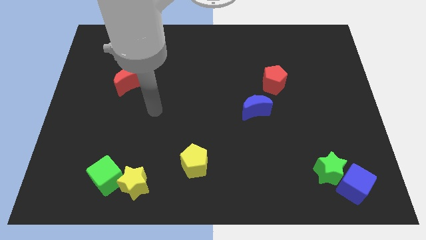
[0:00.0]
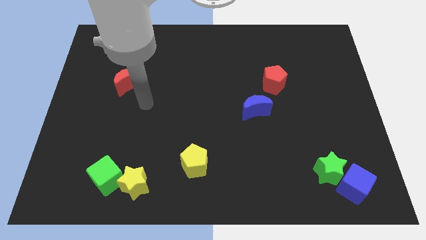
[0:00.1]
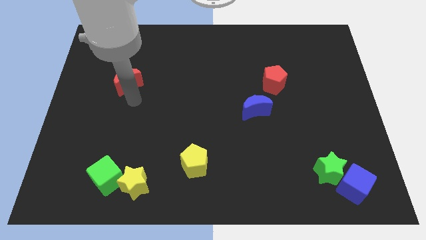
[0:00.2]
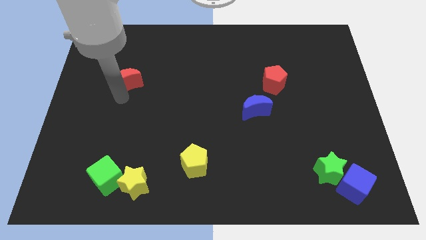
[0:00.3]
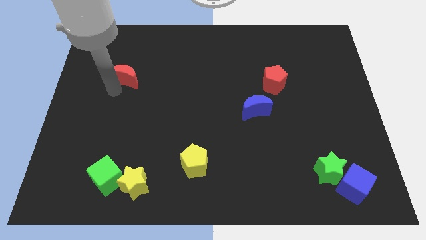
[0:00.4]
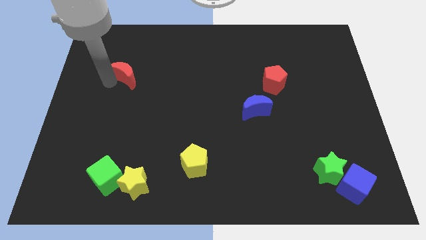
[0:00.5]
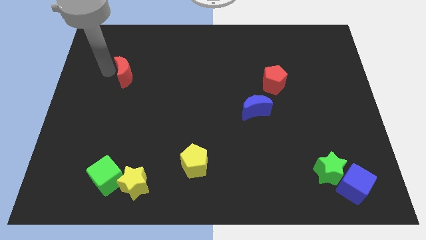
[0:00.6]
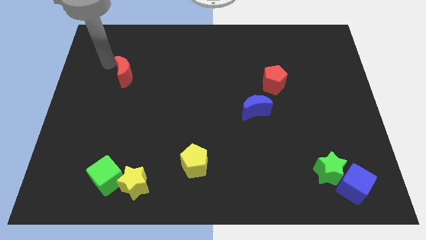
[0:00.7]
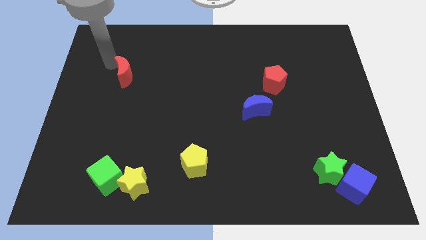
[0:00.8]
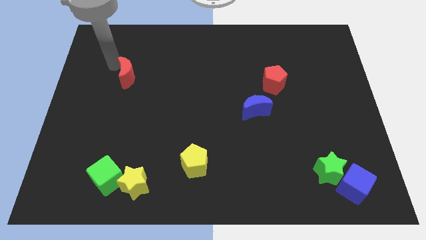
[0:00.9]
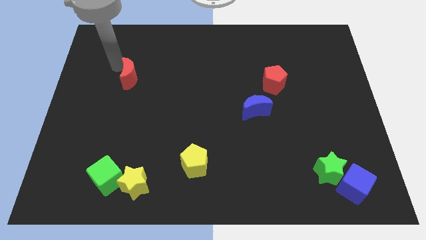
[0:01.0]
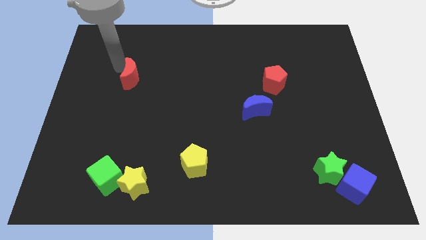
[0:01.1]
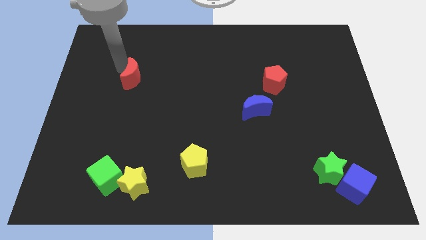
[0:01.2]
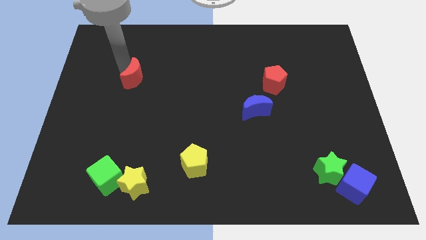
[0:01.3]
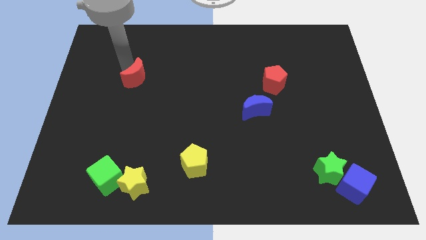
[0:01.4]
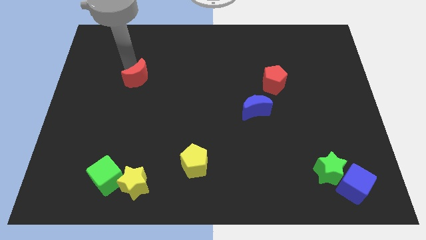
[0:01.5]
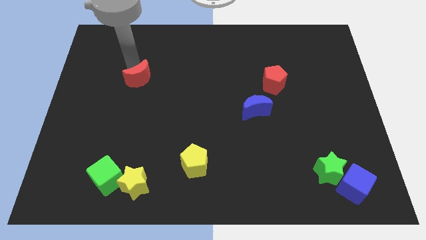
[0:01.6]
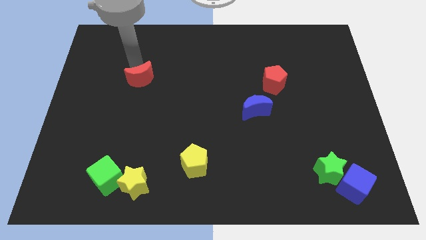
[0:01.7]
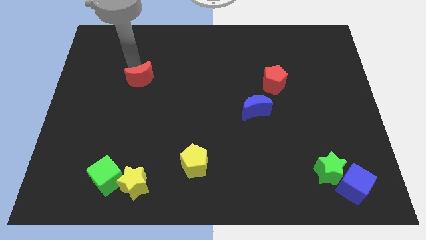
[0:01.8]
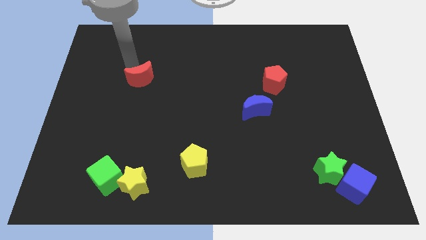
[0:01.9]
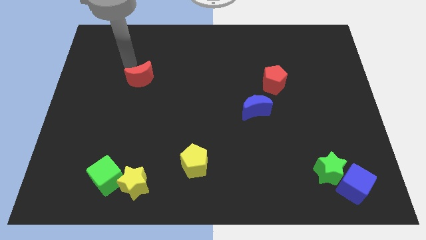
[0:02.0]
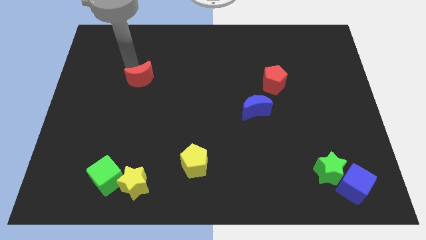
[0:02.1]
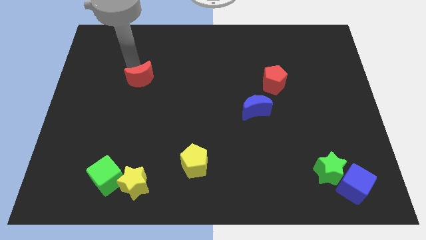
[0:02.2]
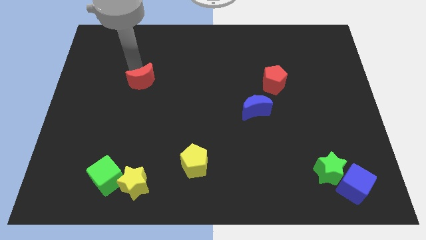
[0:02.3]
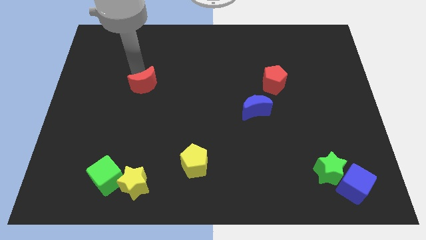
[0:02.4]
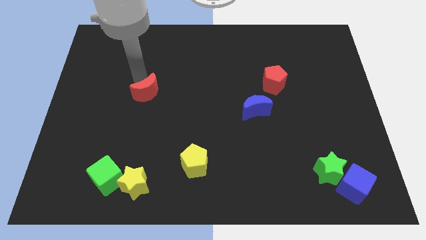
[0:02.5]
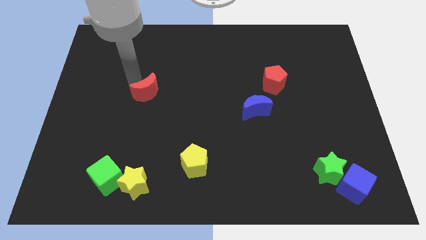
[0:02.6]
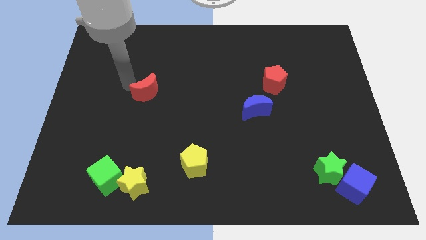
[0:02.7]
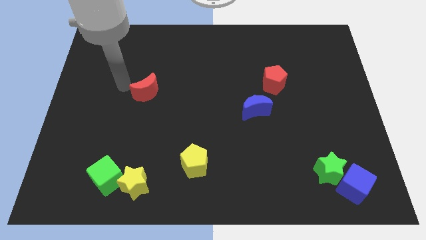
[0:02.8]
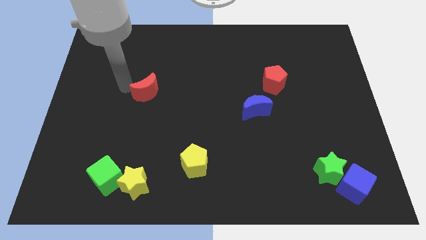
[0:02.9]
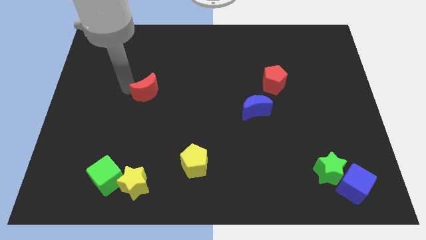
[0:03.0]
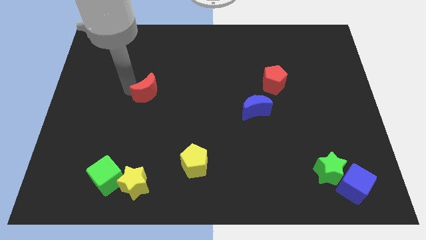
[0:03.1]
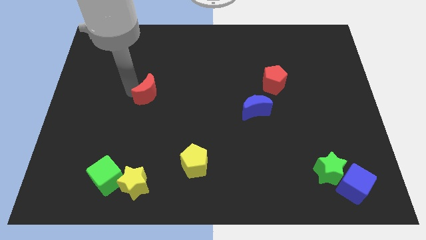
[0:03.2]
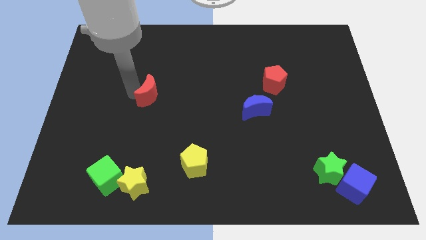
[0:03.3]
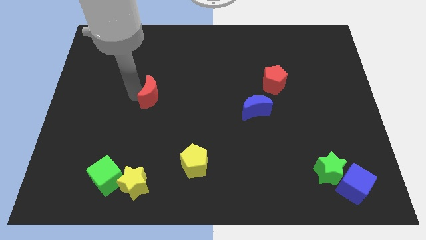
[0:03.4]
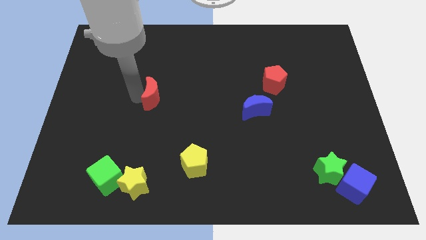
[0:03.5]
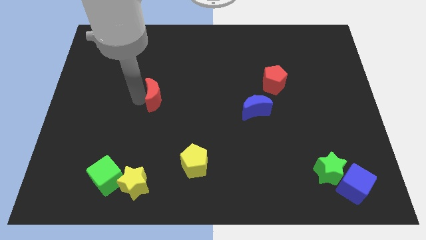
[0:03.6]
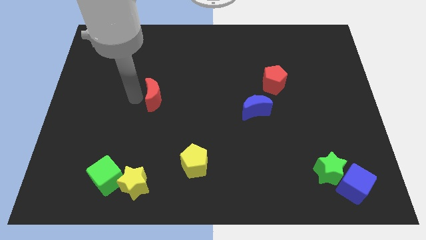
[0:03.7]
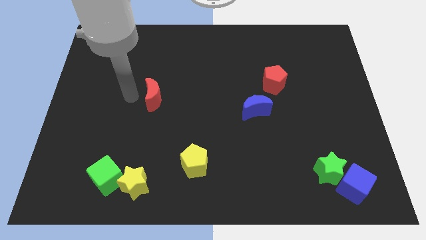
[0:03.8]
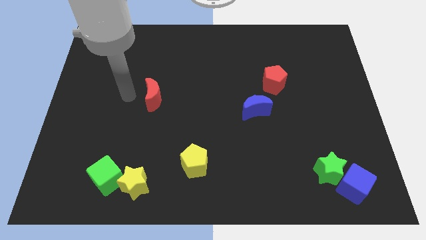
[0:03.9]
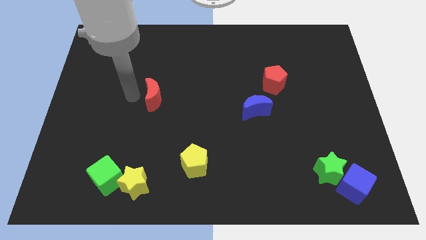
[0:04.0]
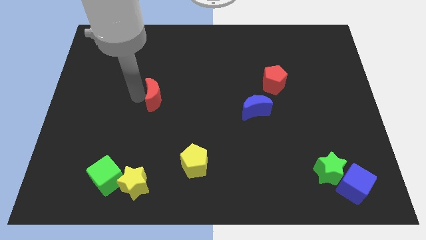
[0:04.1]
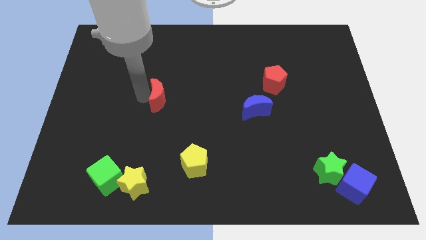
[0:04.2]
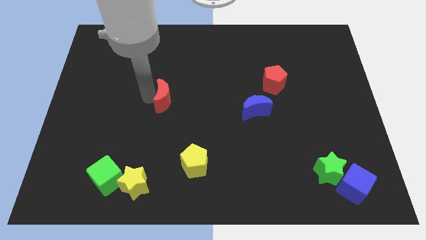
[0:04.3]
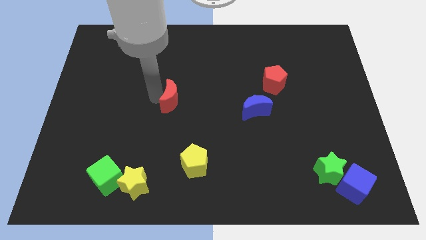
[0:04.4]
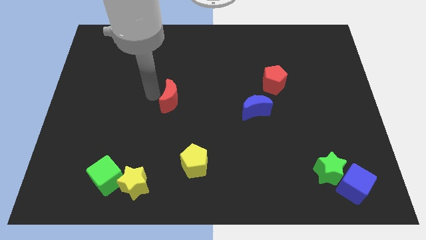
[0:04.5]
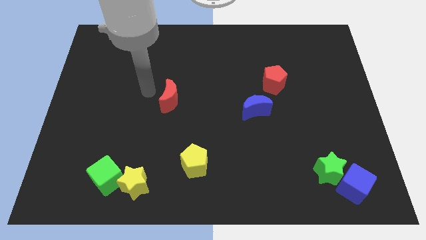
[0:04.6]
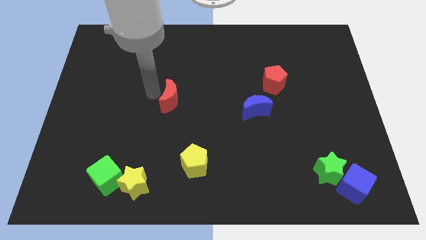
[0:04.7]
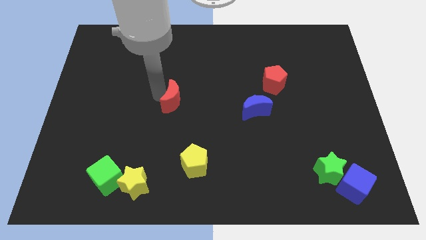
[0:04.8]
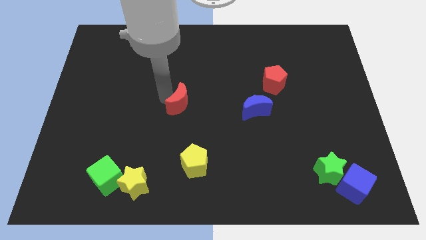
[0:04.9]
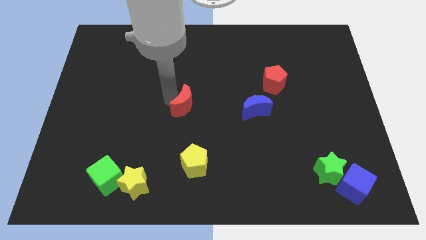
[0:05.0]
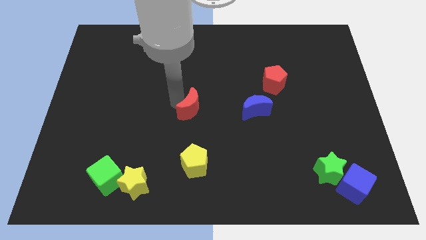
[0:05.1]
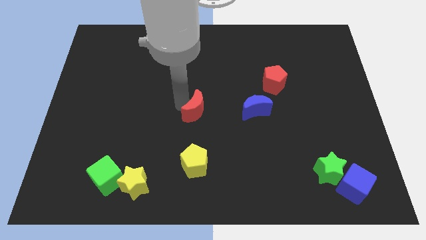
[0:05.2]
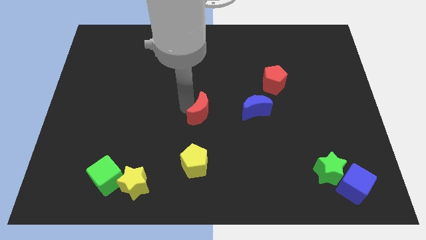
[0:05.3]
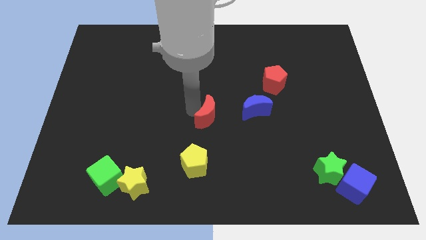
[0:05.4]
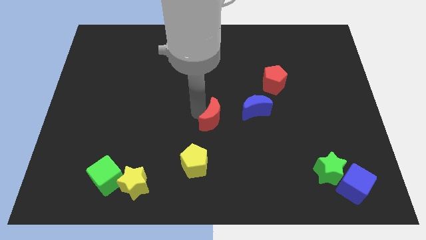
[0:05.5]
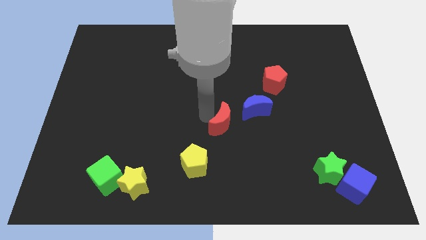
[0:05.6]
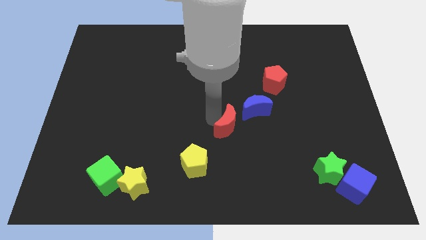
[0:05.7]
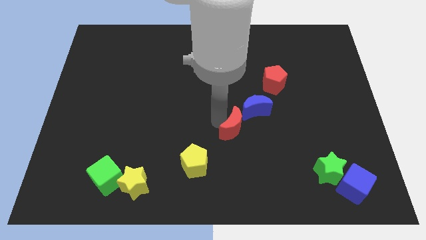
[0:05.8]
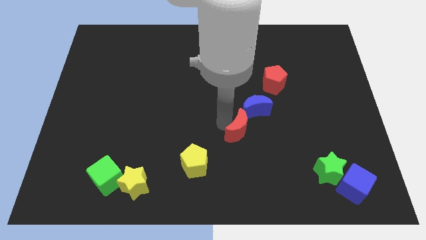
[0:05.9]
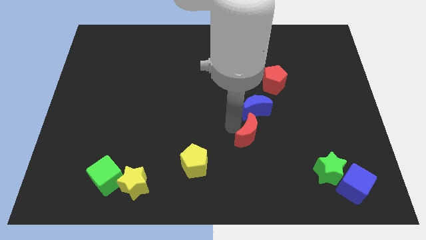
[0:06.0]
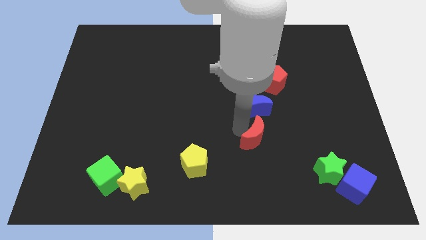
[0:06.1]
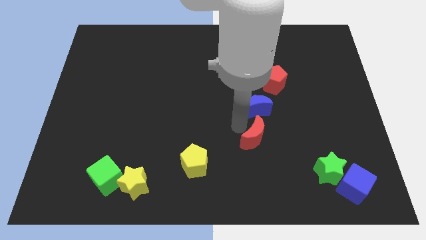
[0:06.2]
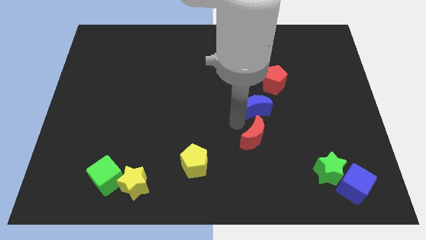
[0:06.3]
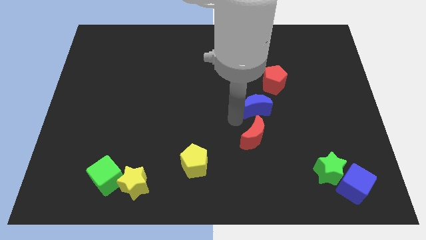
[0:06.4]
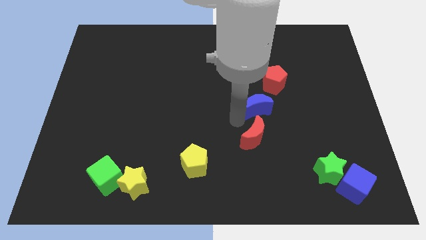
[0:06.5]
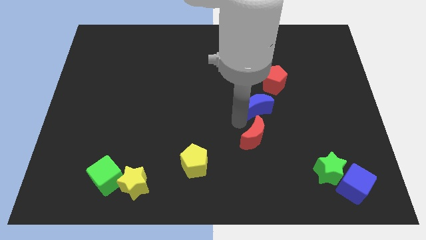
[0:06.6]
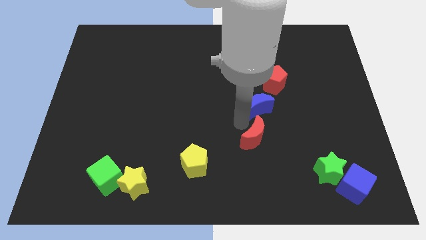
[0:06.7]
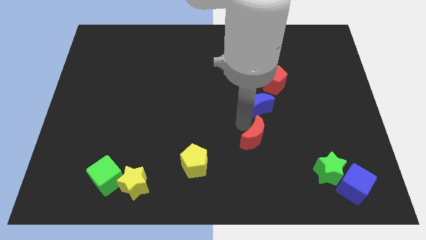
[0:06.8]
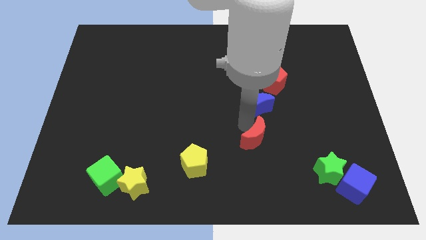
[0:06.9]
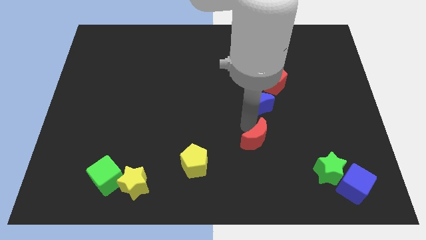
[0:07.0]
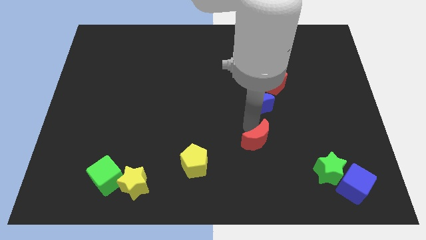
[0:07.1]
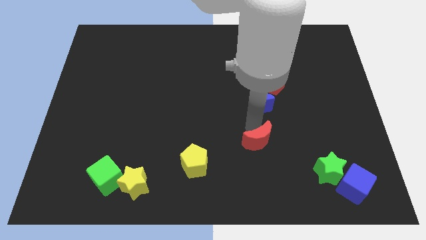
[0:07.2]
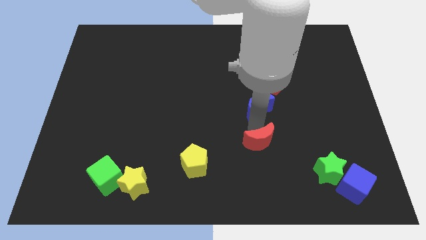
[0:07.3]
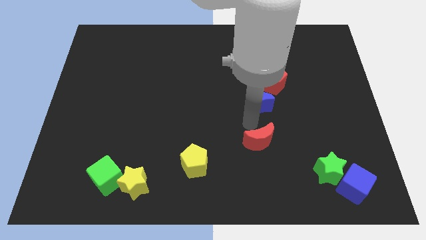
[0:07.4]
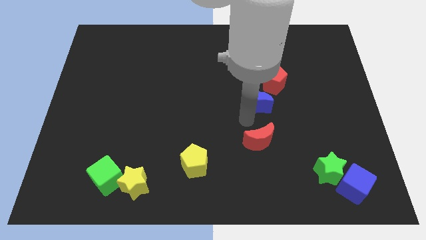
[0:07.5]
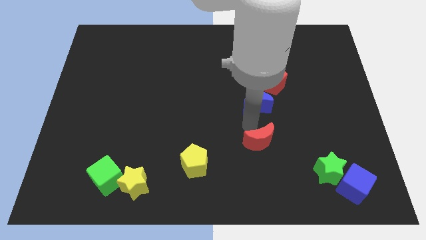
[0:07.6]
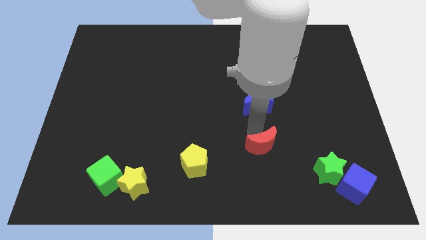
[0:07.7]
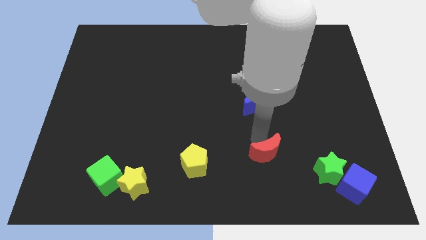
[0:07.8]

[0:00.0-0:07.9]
slide the red moon to the left of the green star
